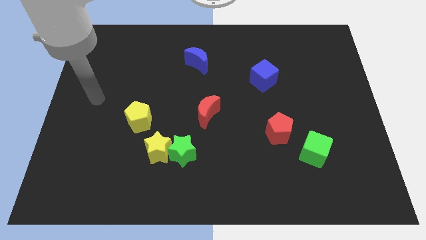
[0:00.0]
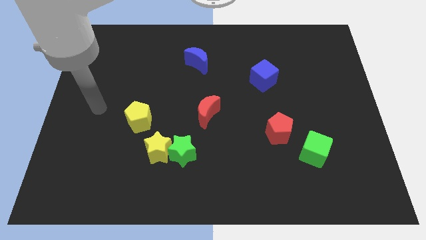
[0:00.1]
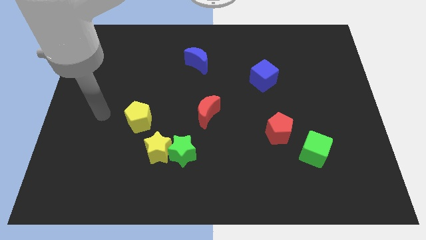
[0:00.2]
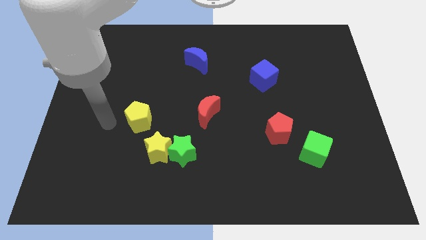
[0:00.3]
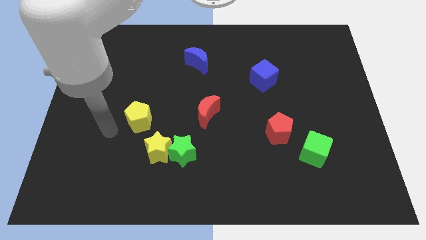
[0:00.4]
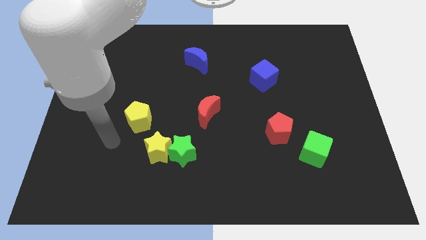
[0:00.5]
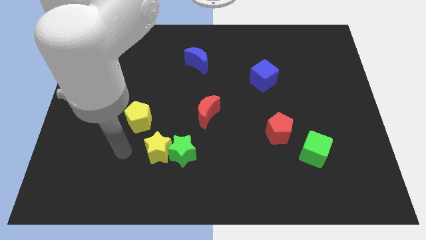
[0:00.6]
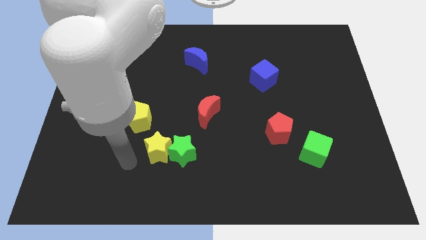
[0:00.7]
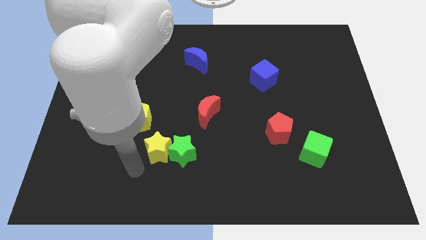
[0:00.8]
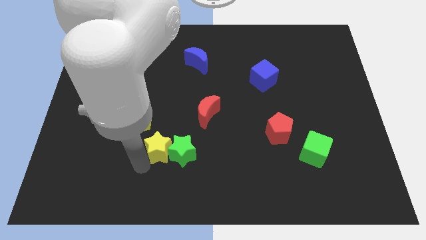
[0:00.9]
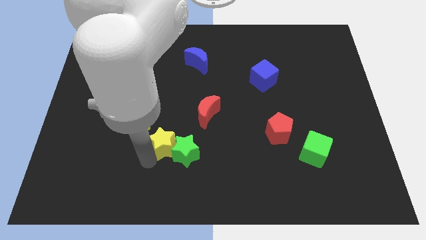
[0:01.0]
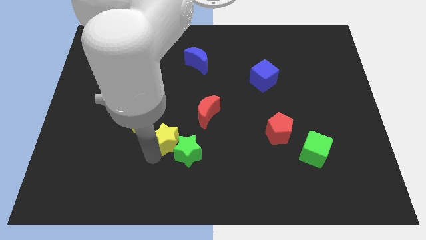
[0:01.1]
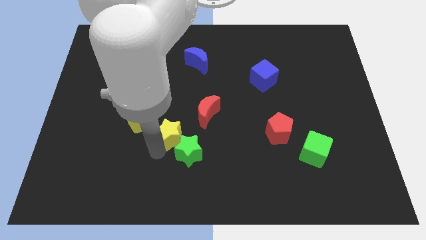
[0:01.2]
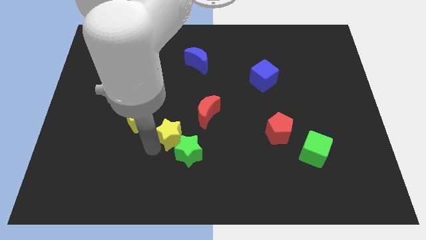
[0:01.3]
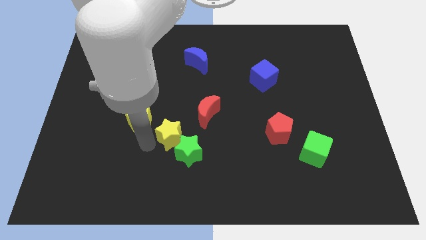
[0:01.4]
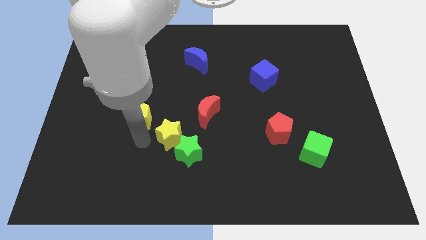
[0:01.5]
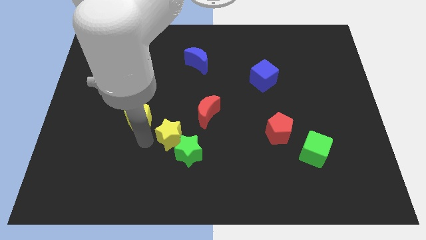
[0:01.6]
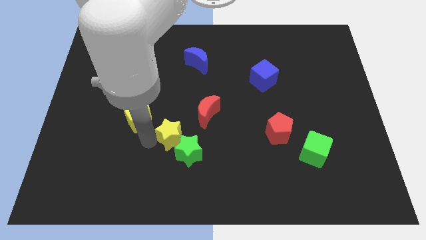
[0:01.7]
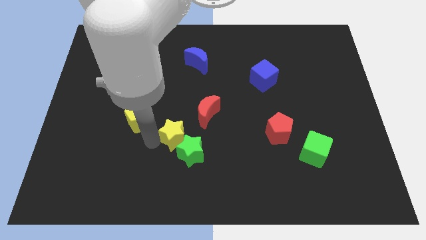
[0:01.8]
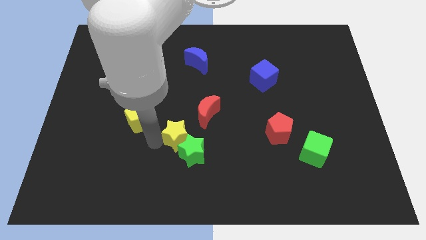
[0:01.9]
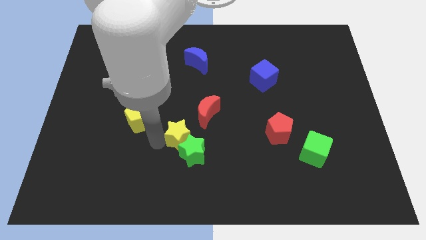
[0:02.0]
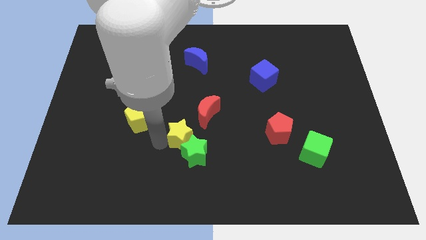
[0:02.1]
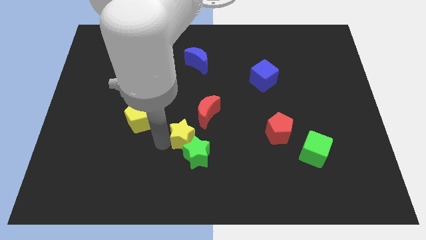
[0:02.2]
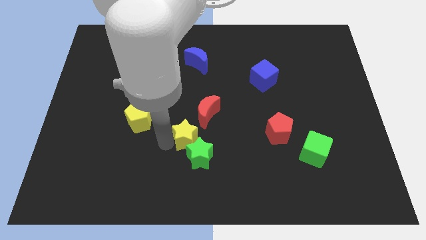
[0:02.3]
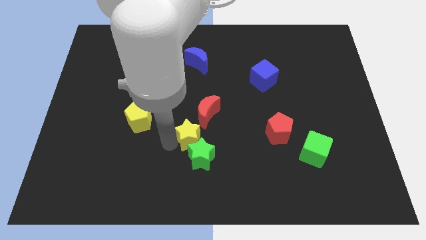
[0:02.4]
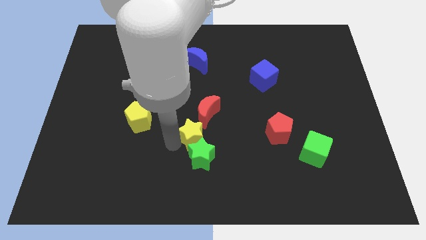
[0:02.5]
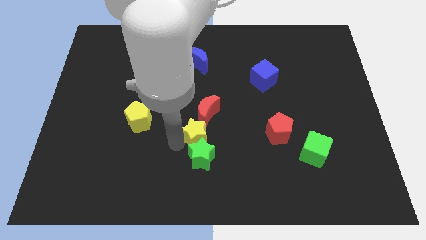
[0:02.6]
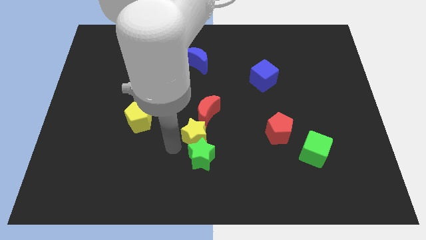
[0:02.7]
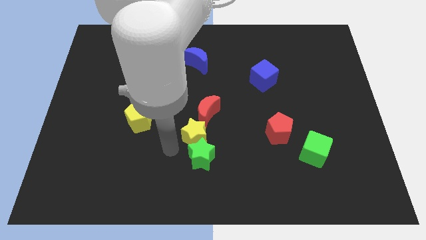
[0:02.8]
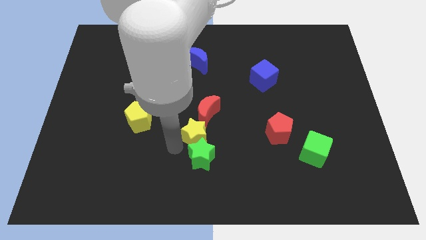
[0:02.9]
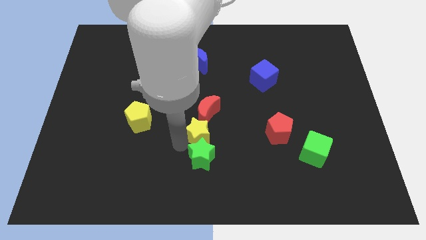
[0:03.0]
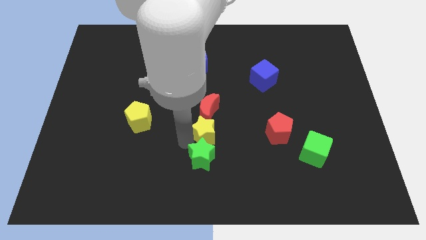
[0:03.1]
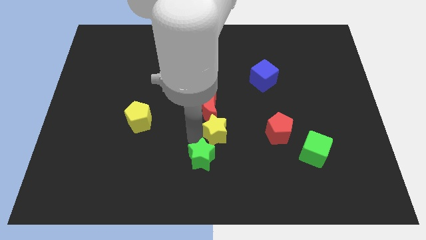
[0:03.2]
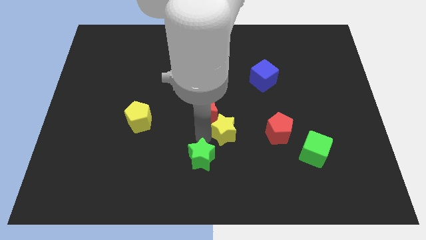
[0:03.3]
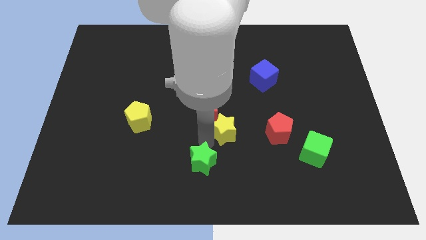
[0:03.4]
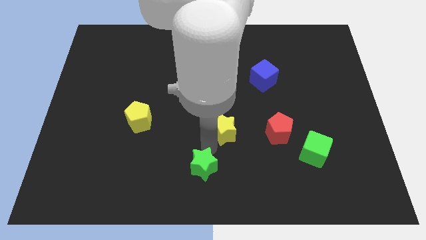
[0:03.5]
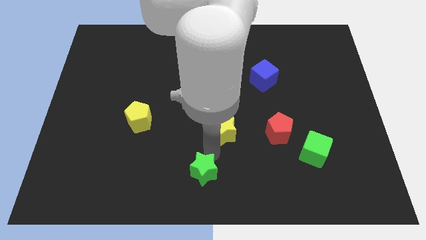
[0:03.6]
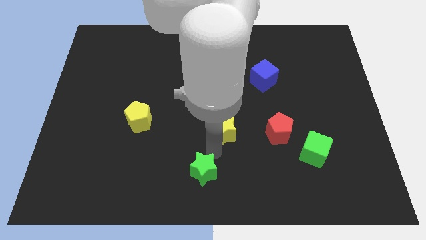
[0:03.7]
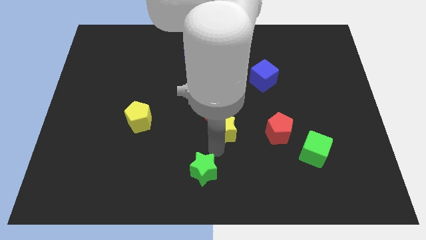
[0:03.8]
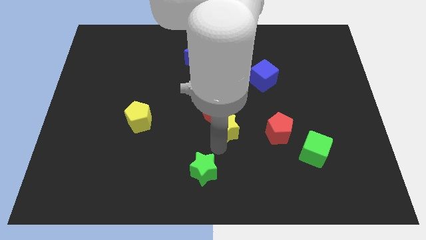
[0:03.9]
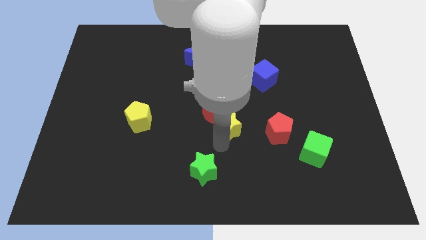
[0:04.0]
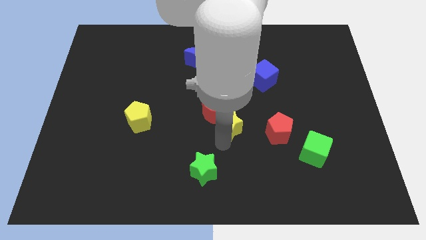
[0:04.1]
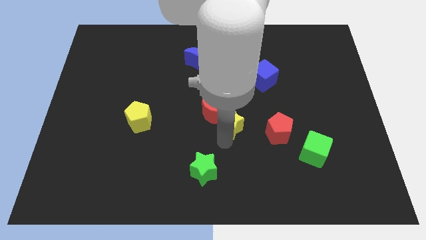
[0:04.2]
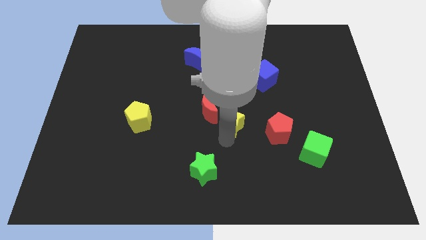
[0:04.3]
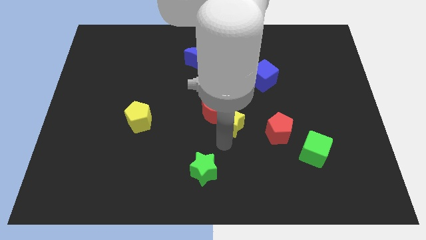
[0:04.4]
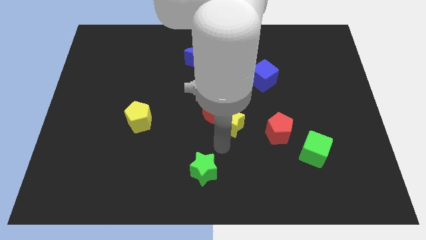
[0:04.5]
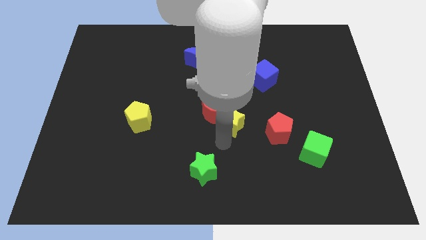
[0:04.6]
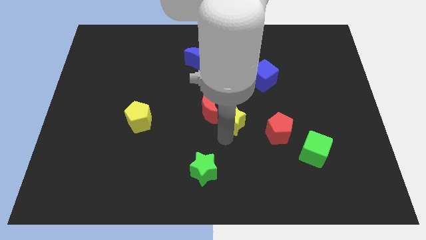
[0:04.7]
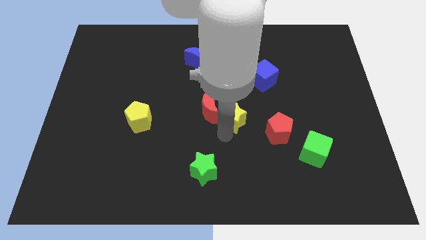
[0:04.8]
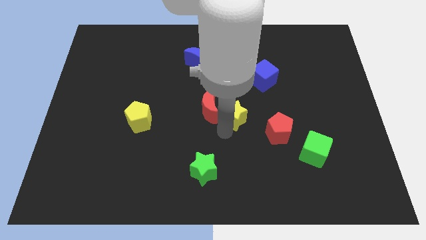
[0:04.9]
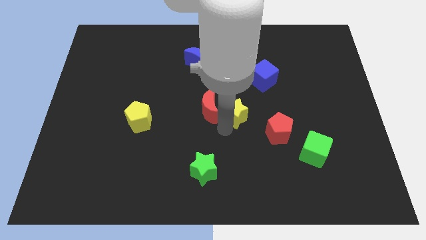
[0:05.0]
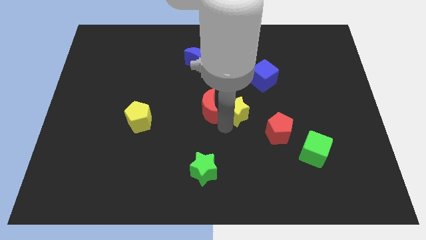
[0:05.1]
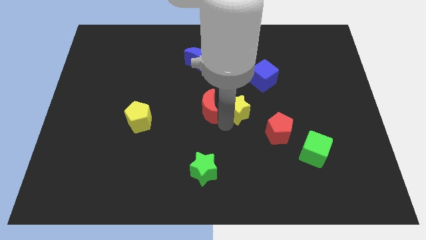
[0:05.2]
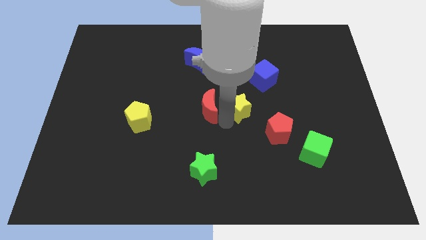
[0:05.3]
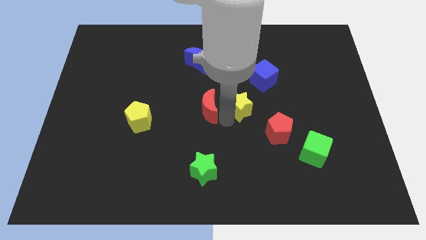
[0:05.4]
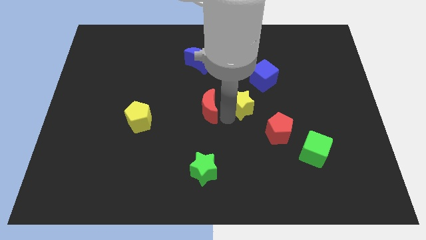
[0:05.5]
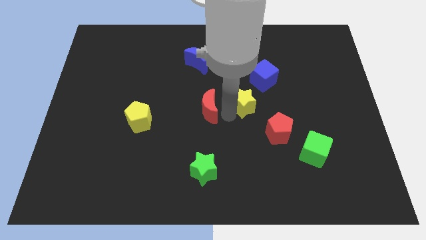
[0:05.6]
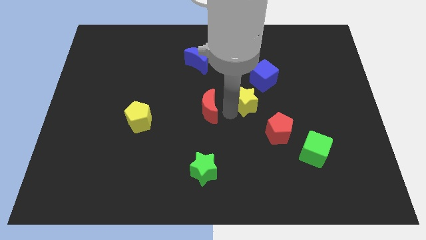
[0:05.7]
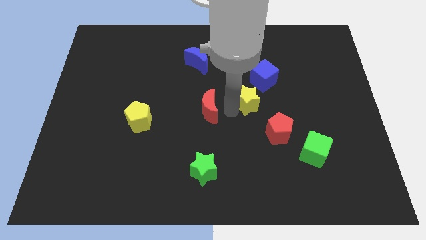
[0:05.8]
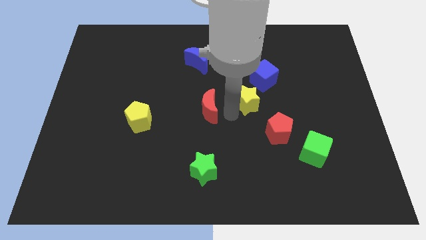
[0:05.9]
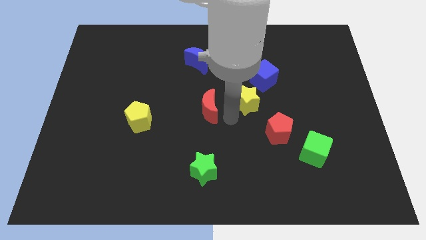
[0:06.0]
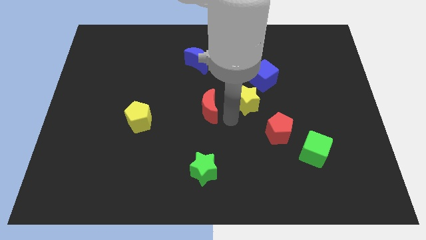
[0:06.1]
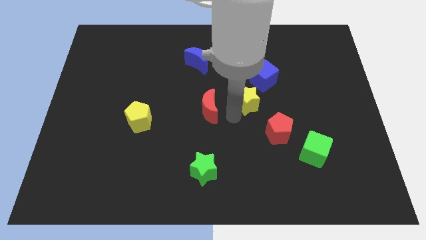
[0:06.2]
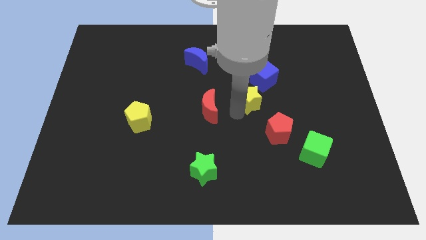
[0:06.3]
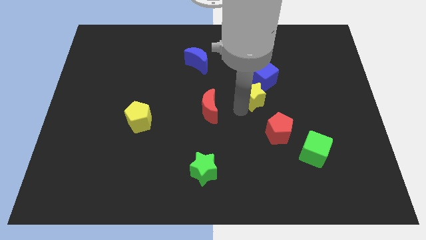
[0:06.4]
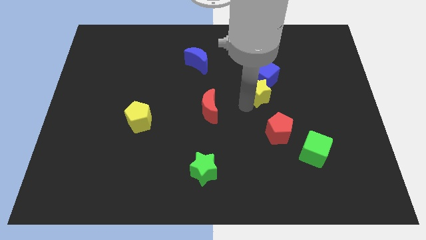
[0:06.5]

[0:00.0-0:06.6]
slide the yellow star close to the blue cube

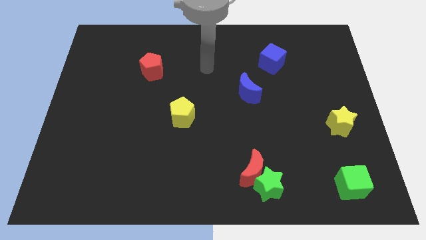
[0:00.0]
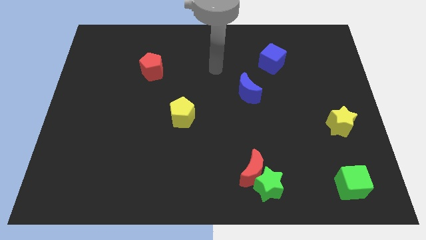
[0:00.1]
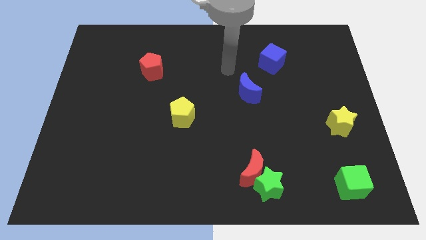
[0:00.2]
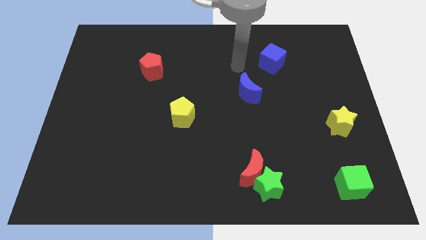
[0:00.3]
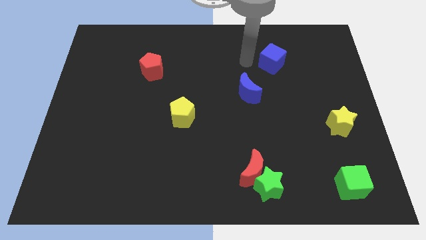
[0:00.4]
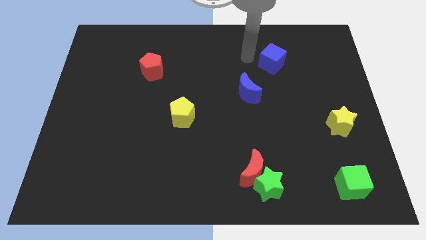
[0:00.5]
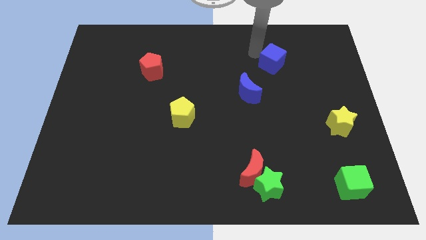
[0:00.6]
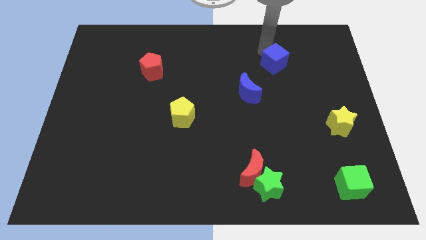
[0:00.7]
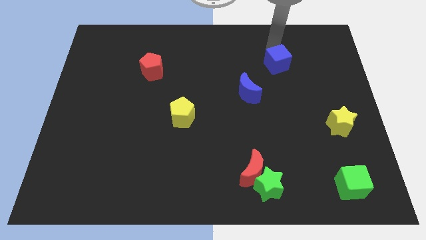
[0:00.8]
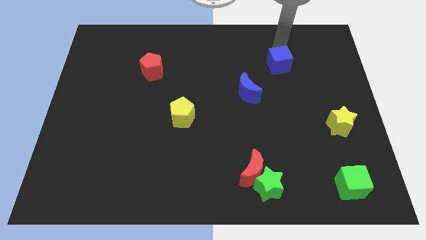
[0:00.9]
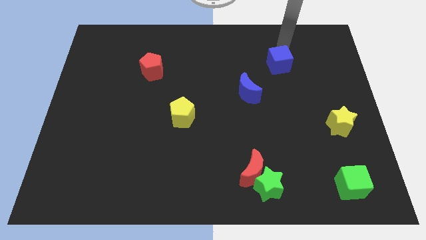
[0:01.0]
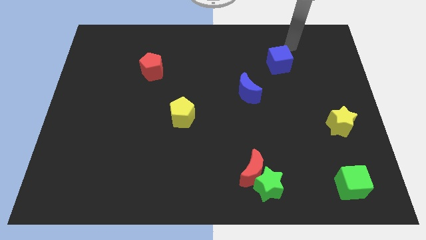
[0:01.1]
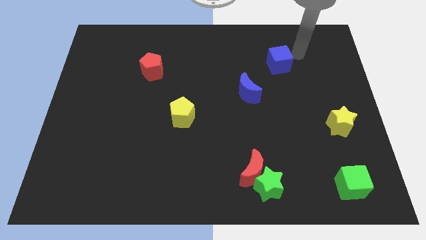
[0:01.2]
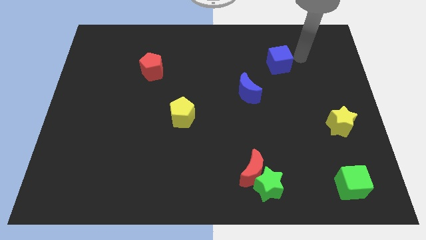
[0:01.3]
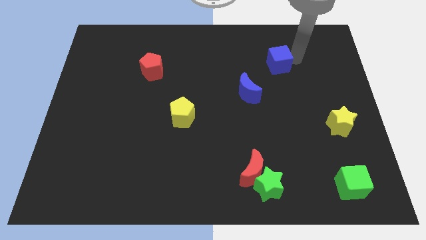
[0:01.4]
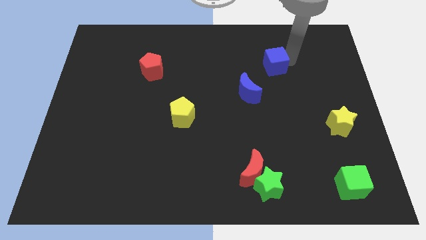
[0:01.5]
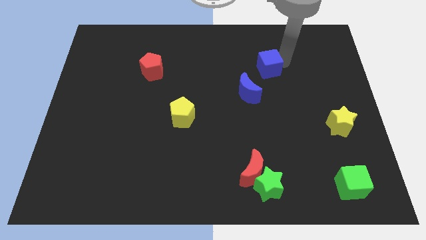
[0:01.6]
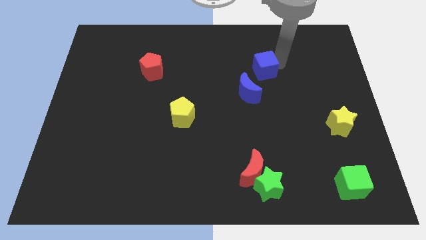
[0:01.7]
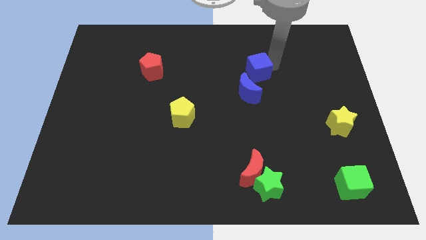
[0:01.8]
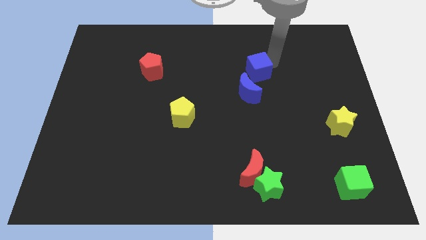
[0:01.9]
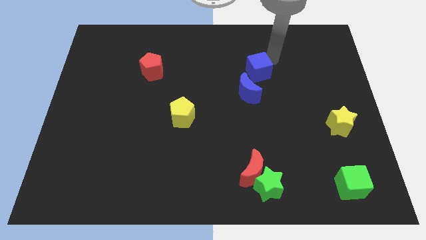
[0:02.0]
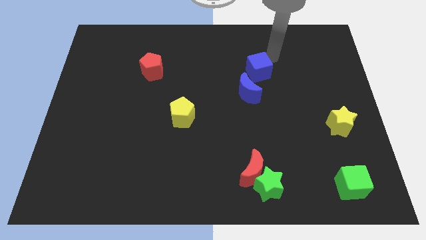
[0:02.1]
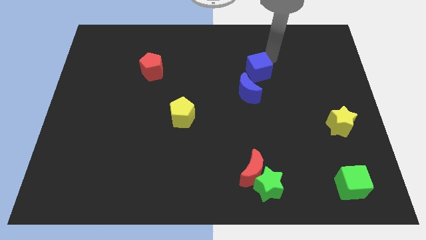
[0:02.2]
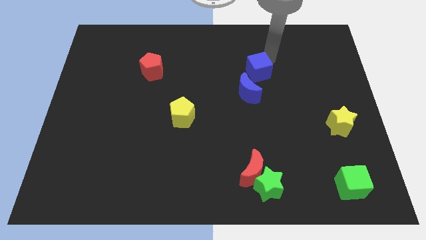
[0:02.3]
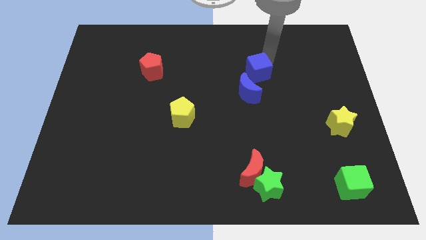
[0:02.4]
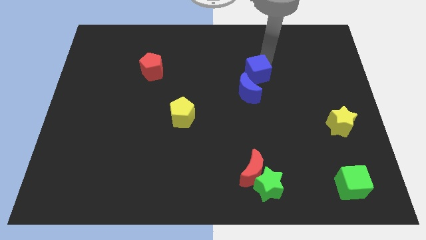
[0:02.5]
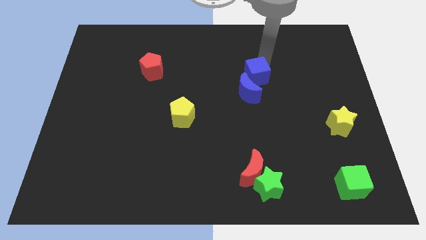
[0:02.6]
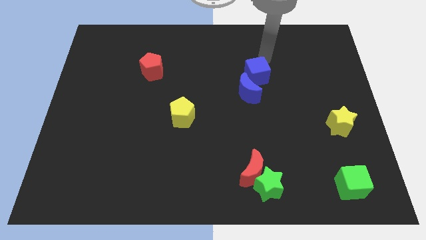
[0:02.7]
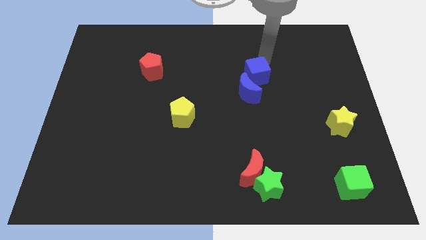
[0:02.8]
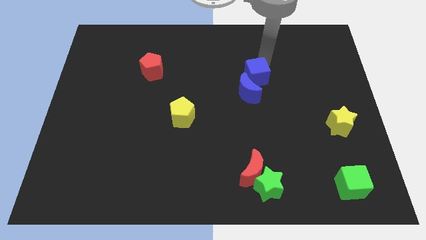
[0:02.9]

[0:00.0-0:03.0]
put the blue cube next to the blue moon
